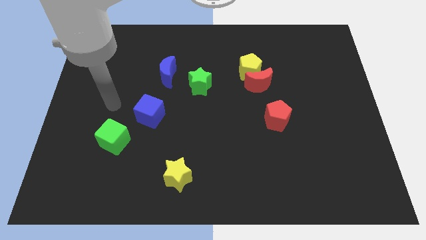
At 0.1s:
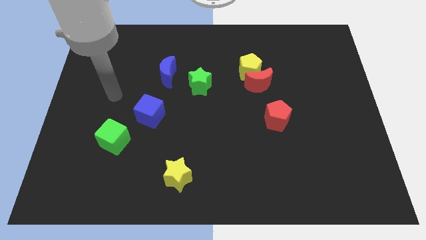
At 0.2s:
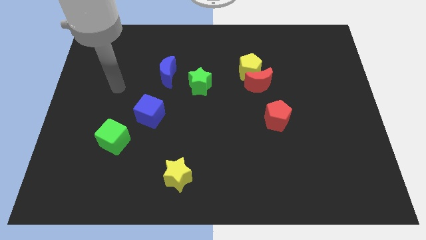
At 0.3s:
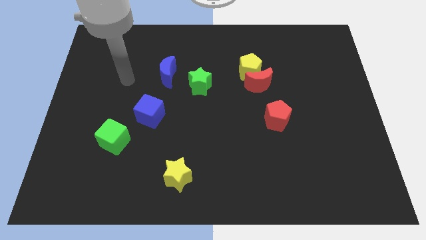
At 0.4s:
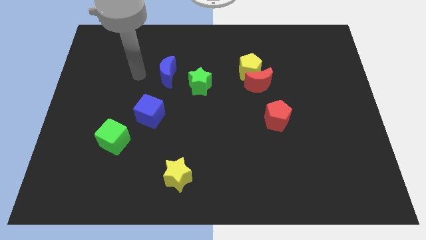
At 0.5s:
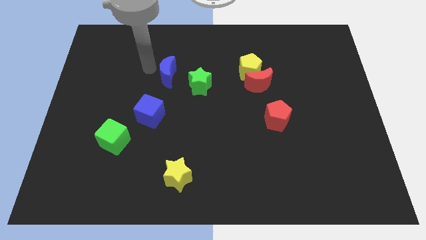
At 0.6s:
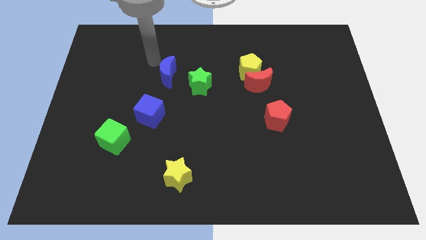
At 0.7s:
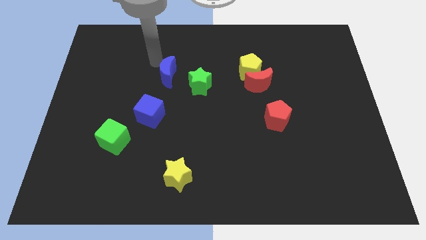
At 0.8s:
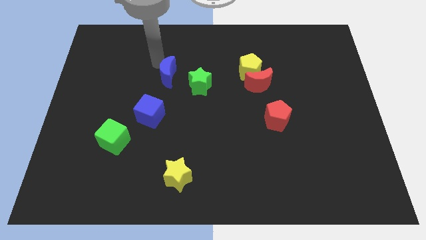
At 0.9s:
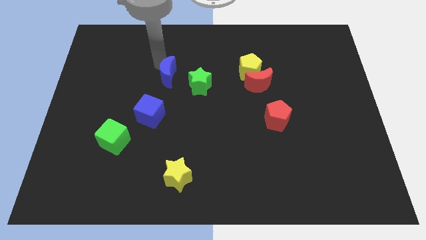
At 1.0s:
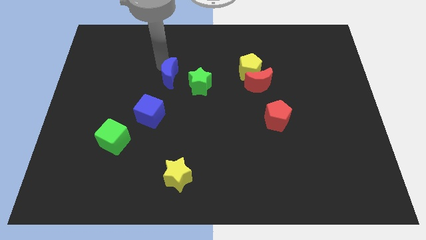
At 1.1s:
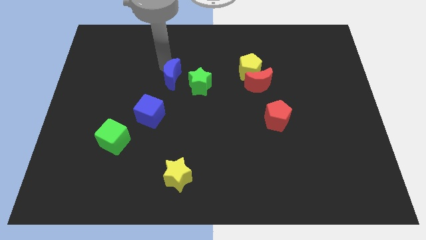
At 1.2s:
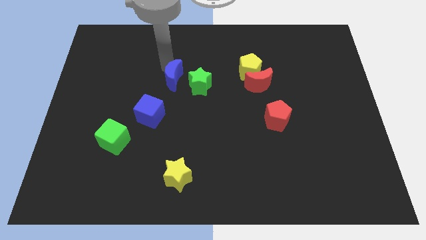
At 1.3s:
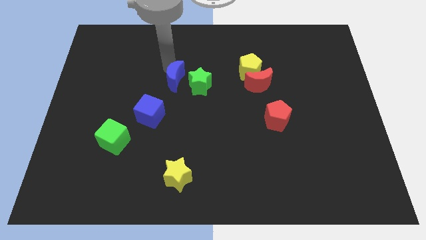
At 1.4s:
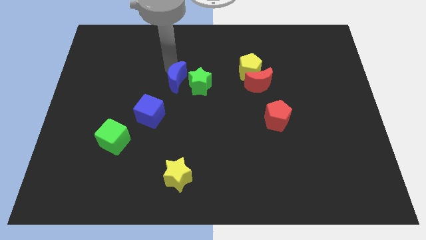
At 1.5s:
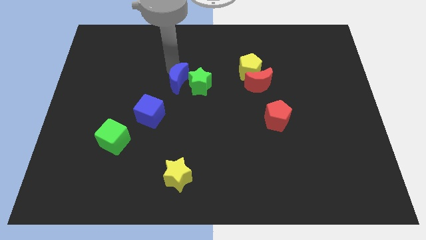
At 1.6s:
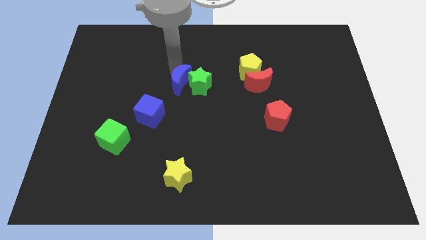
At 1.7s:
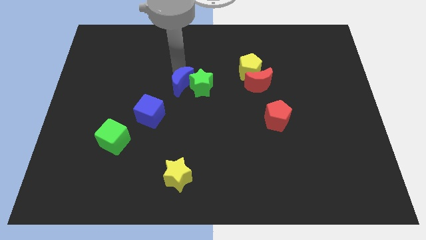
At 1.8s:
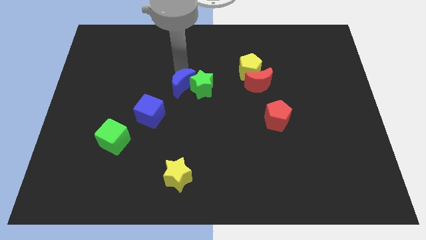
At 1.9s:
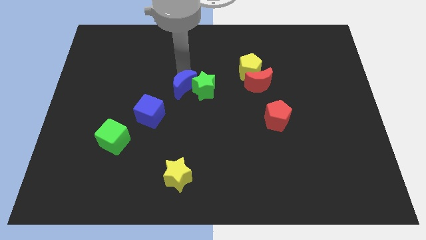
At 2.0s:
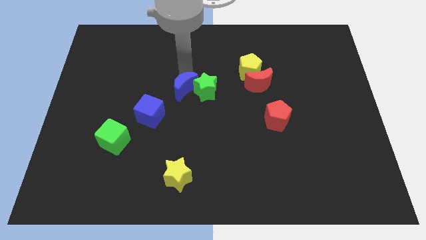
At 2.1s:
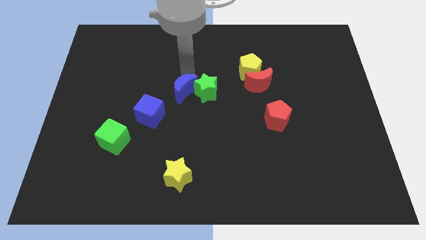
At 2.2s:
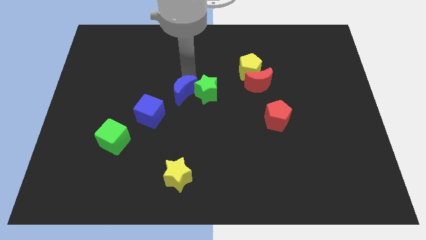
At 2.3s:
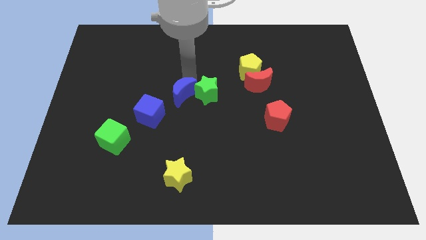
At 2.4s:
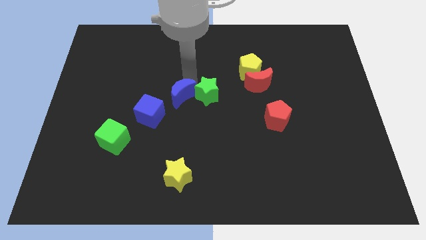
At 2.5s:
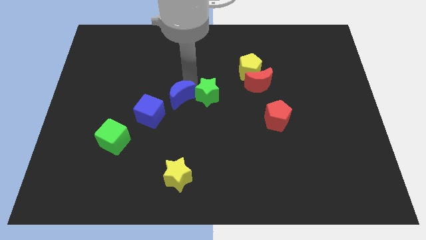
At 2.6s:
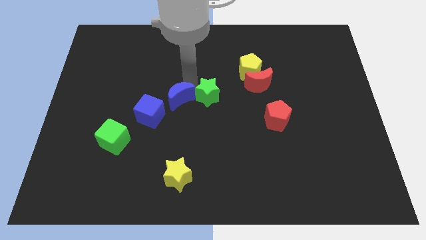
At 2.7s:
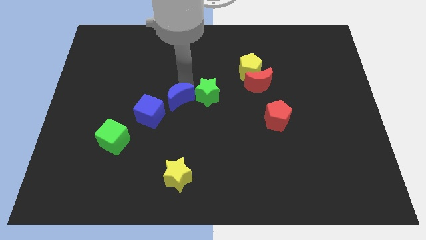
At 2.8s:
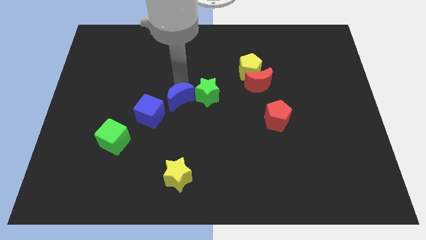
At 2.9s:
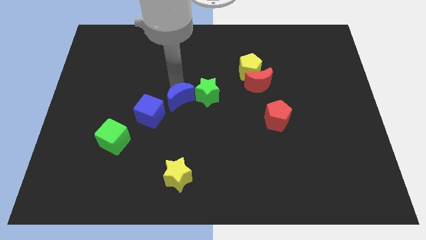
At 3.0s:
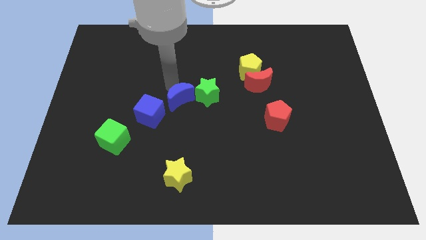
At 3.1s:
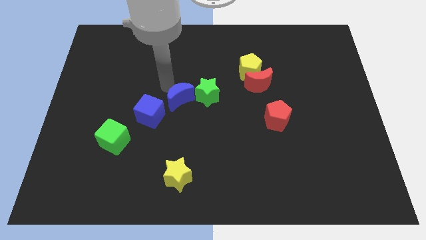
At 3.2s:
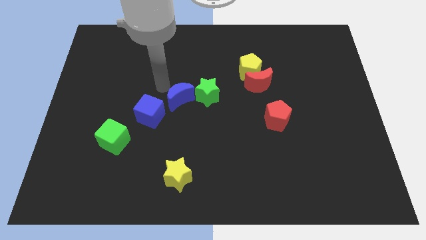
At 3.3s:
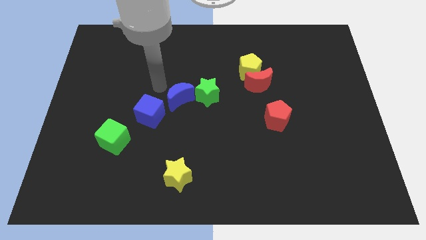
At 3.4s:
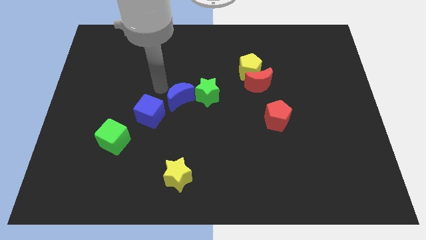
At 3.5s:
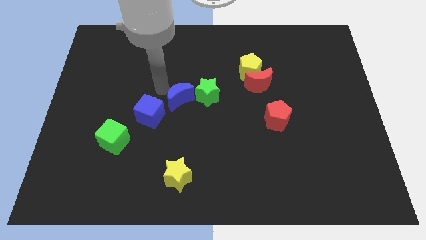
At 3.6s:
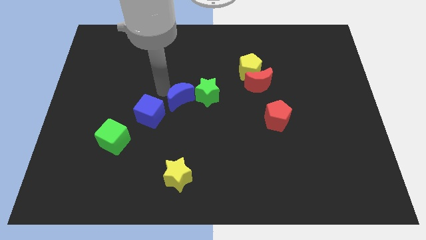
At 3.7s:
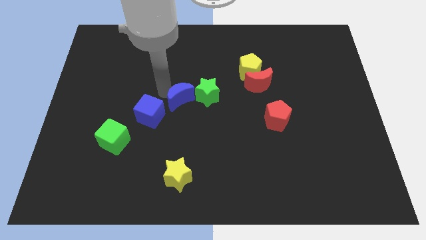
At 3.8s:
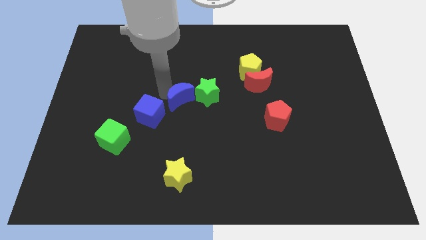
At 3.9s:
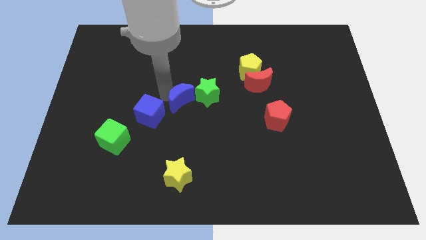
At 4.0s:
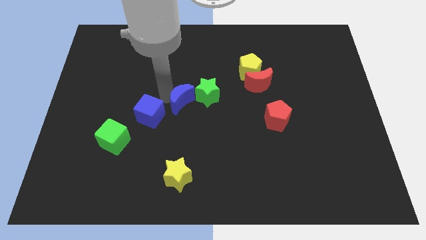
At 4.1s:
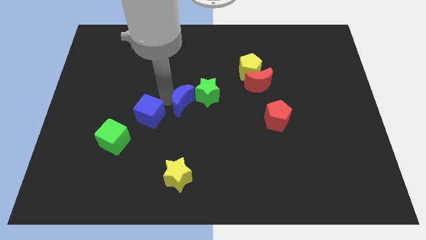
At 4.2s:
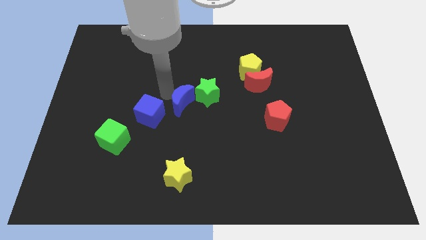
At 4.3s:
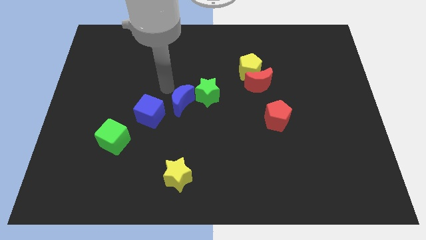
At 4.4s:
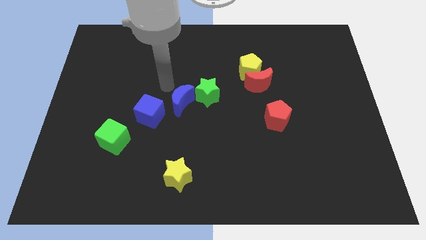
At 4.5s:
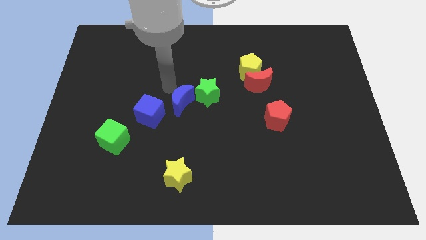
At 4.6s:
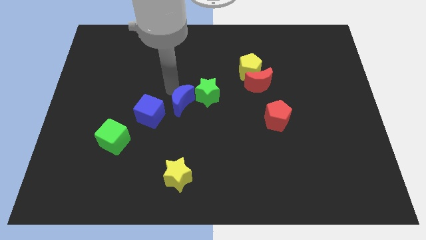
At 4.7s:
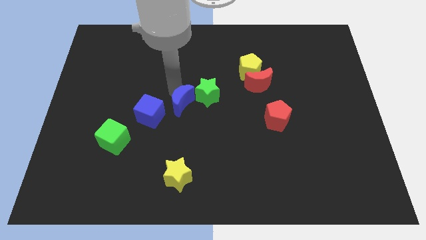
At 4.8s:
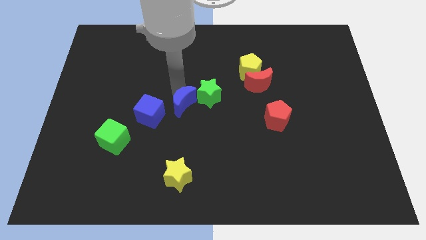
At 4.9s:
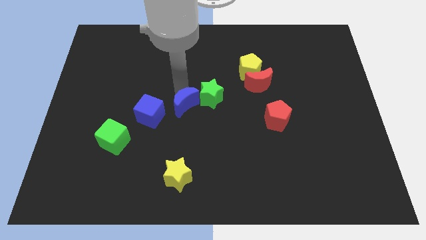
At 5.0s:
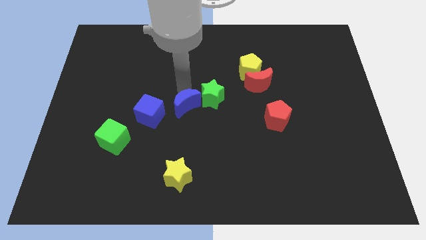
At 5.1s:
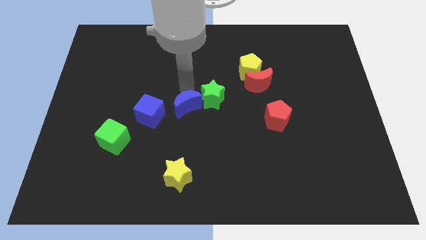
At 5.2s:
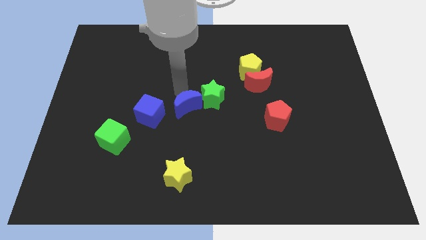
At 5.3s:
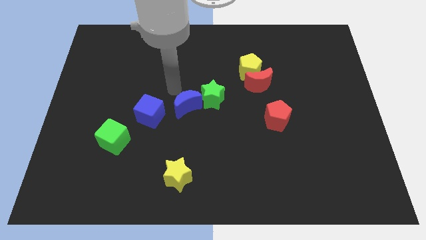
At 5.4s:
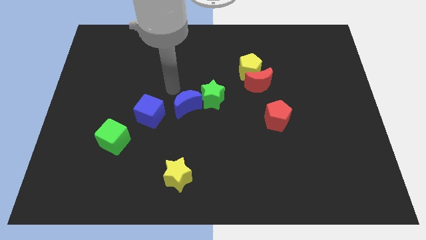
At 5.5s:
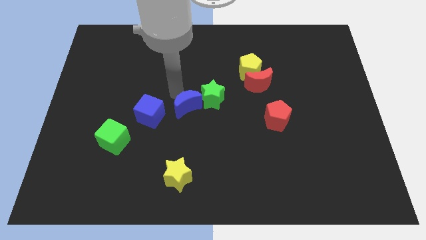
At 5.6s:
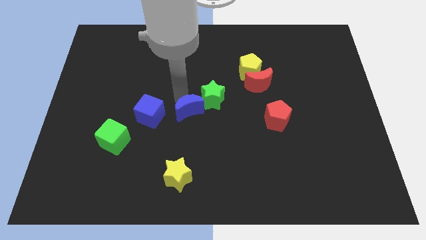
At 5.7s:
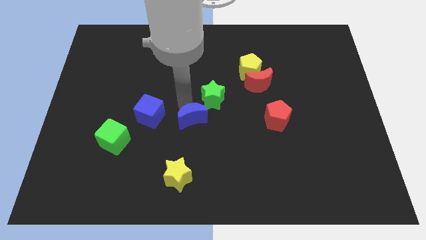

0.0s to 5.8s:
slide the blue moon below the green star

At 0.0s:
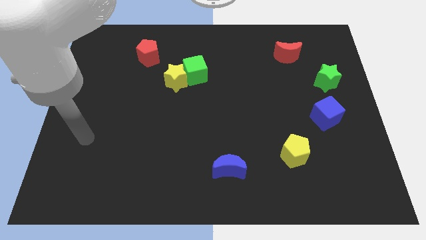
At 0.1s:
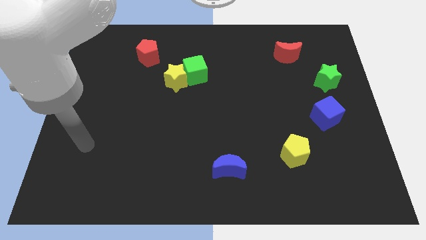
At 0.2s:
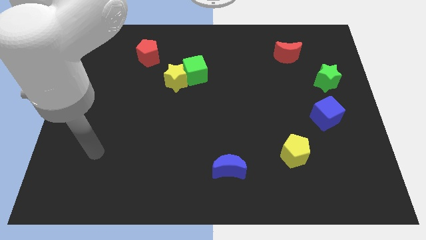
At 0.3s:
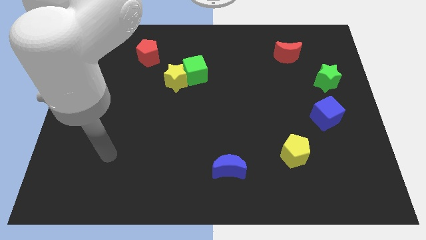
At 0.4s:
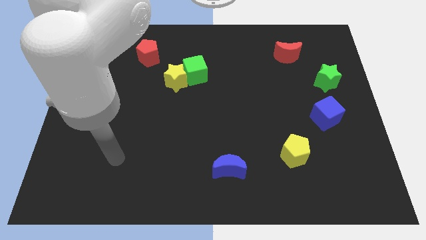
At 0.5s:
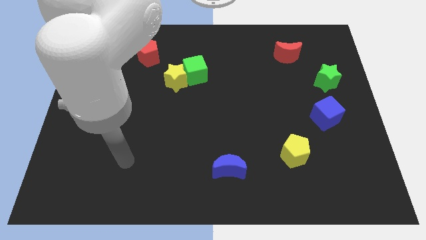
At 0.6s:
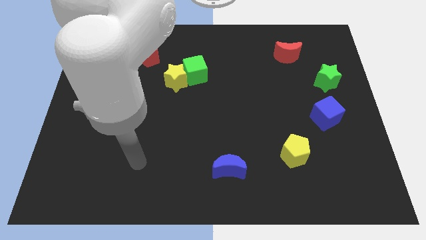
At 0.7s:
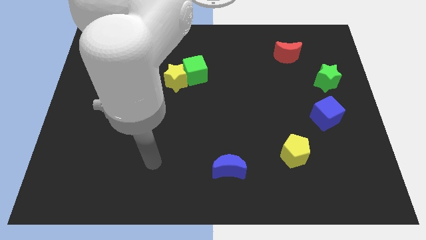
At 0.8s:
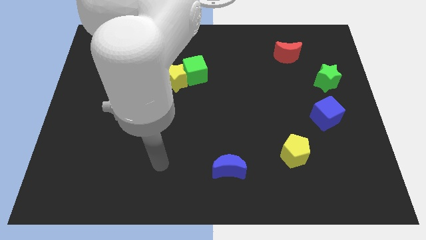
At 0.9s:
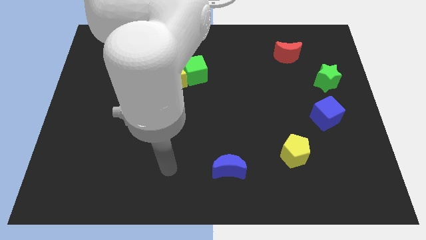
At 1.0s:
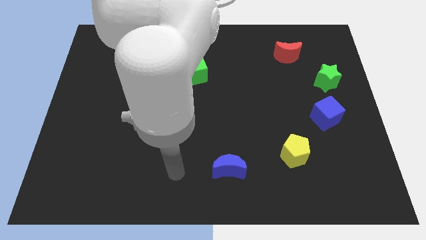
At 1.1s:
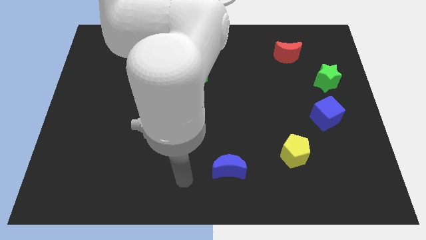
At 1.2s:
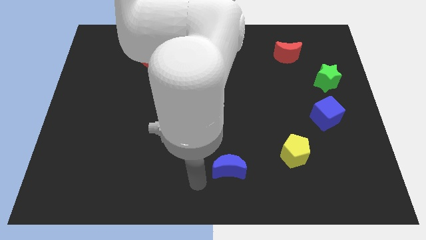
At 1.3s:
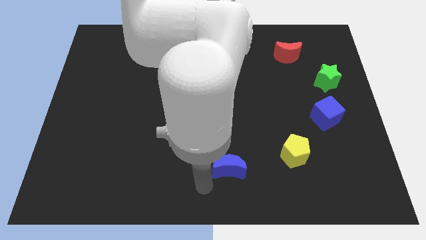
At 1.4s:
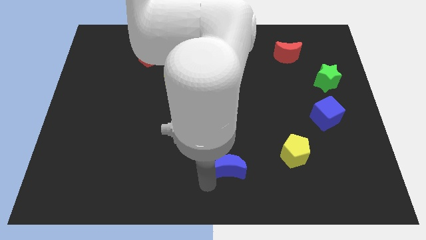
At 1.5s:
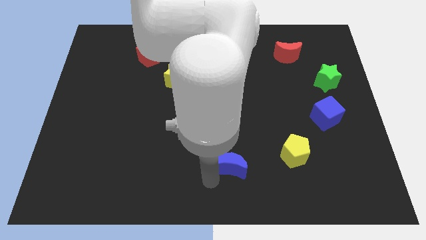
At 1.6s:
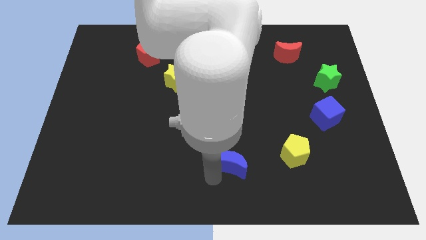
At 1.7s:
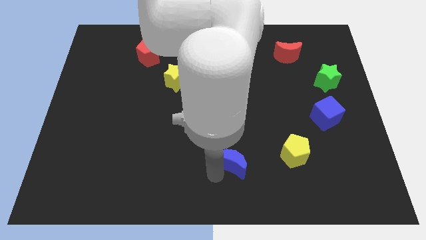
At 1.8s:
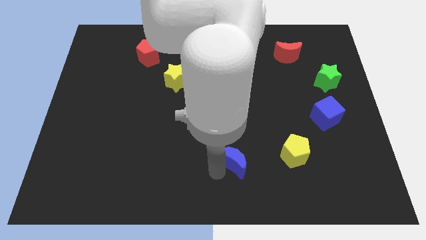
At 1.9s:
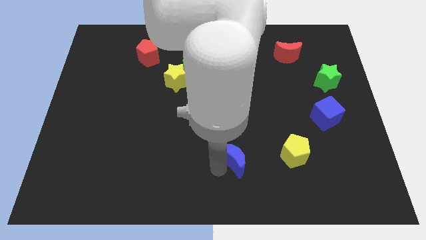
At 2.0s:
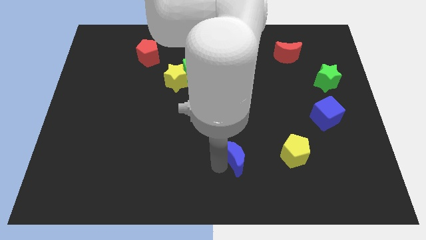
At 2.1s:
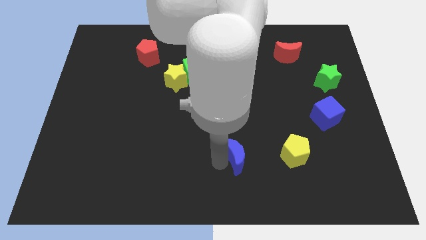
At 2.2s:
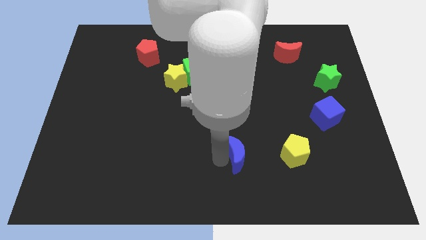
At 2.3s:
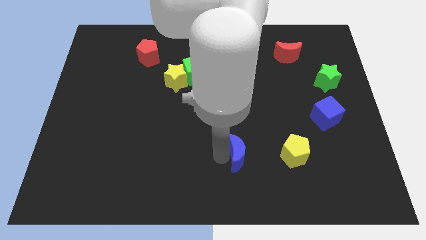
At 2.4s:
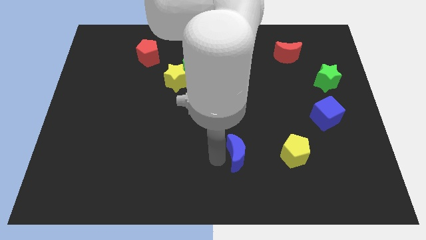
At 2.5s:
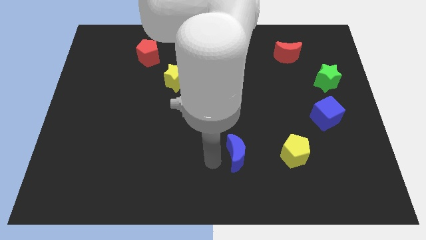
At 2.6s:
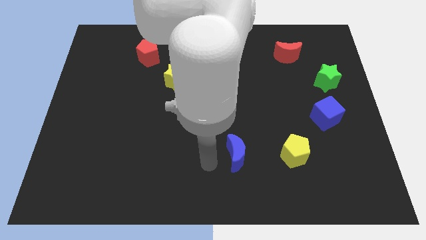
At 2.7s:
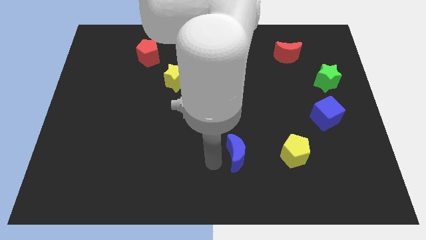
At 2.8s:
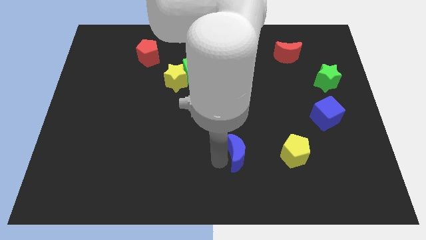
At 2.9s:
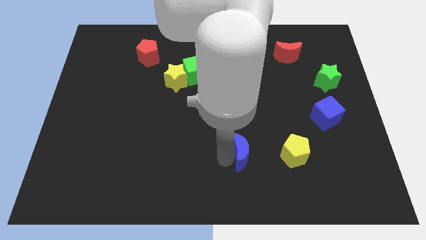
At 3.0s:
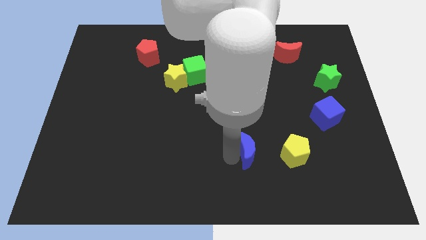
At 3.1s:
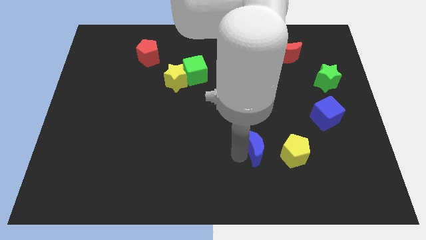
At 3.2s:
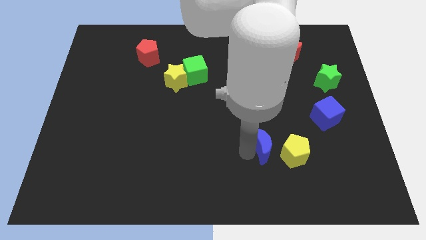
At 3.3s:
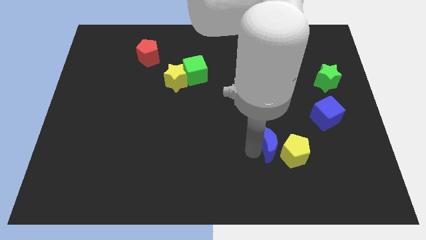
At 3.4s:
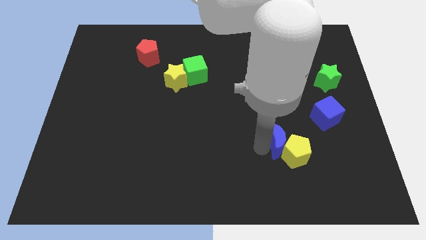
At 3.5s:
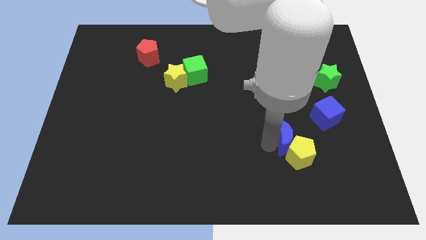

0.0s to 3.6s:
push the blue moon diagonally down and to the left of the blue cube
